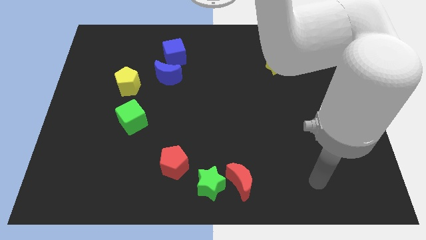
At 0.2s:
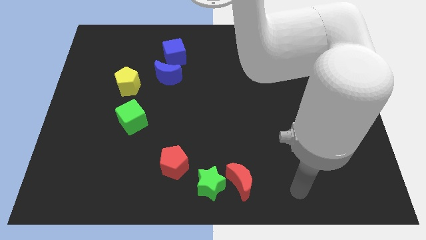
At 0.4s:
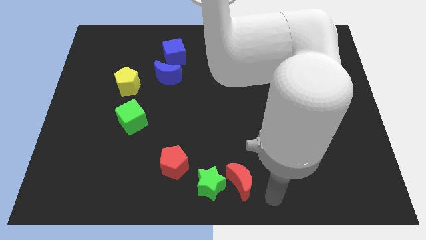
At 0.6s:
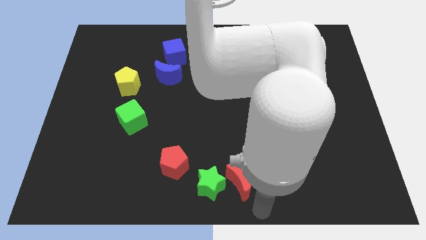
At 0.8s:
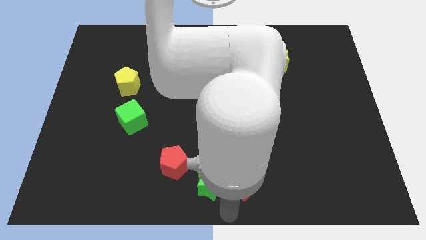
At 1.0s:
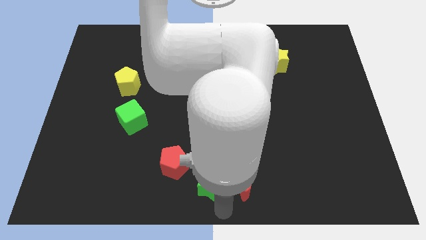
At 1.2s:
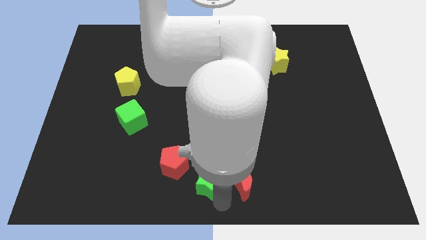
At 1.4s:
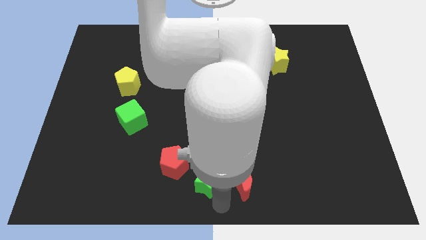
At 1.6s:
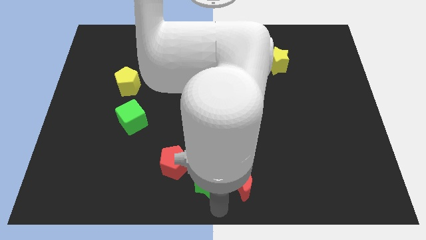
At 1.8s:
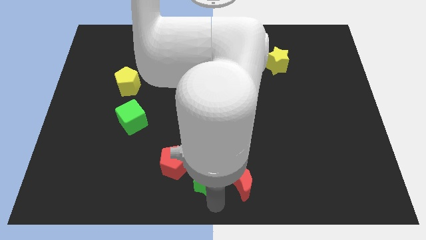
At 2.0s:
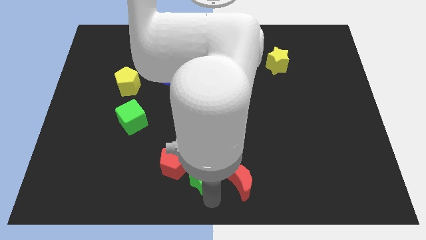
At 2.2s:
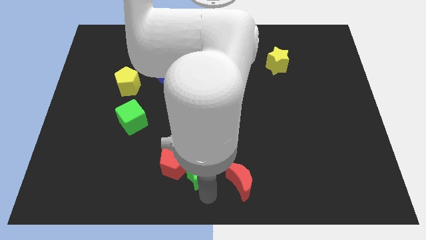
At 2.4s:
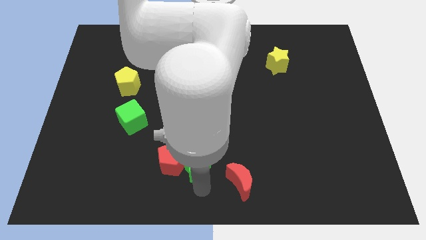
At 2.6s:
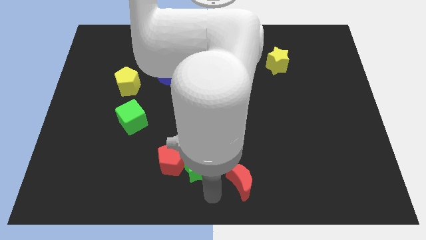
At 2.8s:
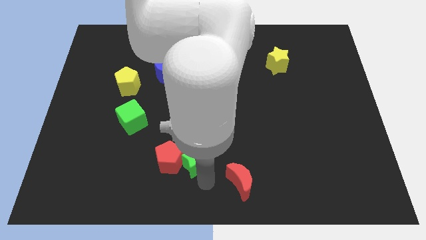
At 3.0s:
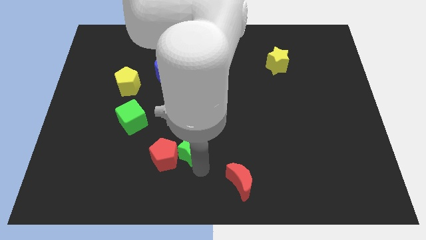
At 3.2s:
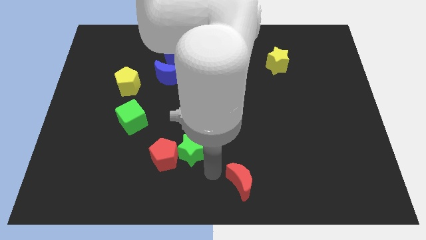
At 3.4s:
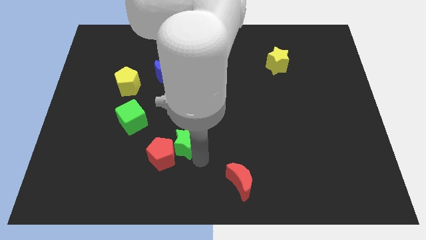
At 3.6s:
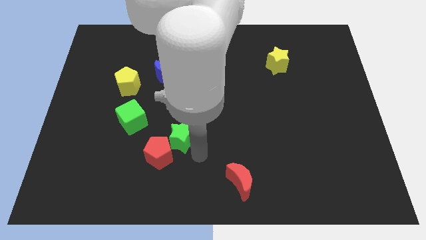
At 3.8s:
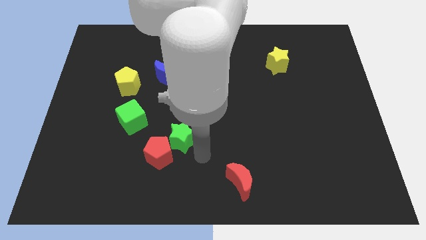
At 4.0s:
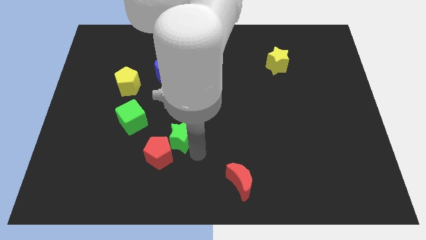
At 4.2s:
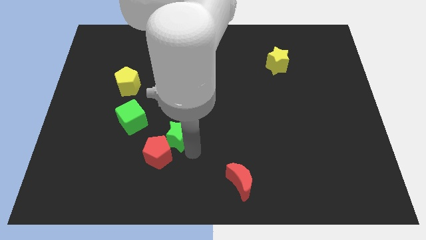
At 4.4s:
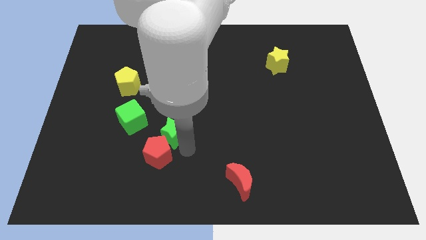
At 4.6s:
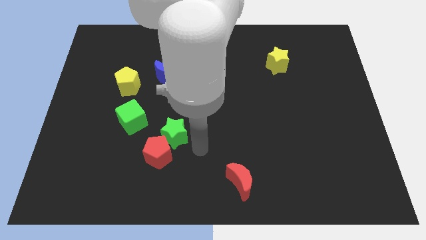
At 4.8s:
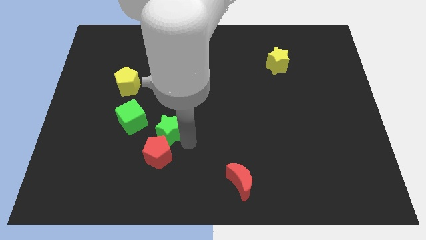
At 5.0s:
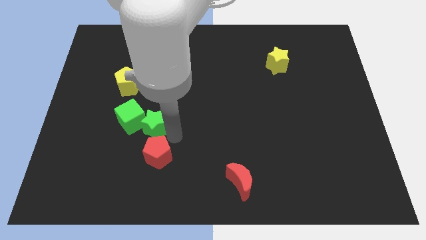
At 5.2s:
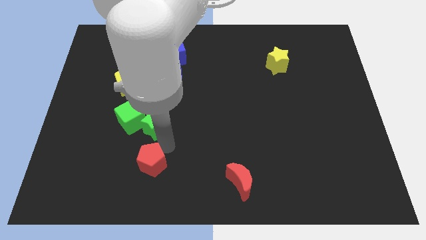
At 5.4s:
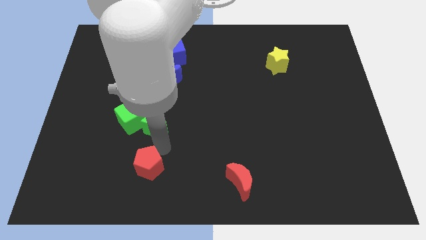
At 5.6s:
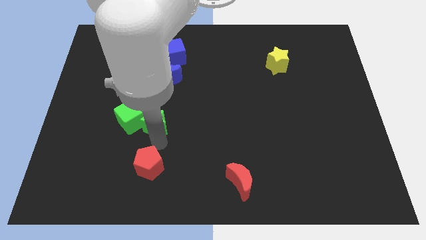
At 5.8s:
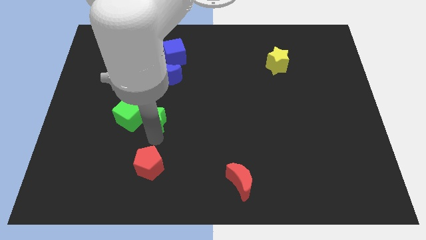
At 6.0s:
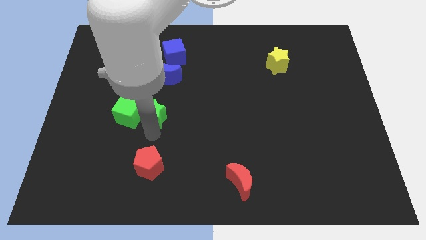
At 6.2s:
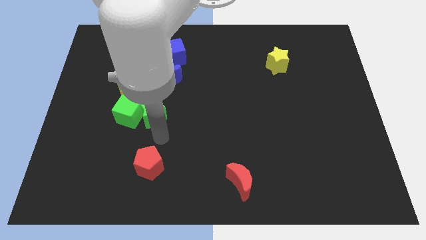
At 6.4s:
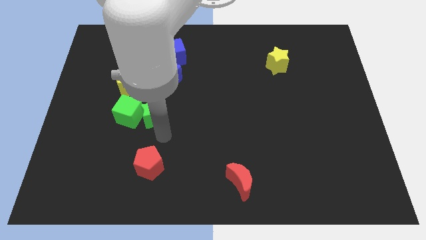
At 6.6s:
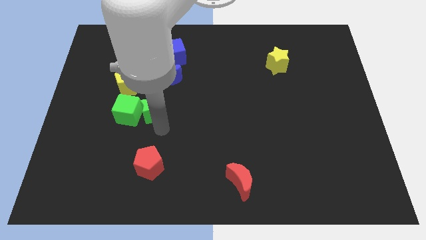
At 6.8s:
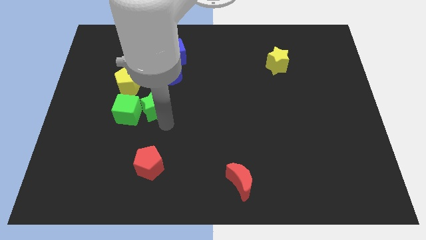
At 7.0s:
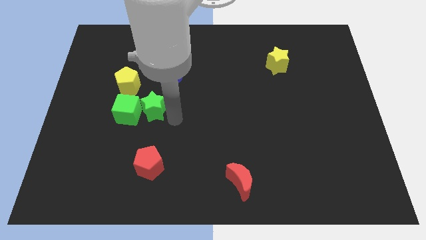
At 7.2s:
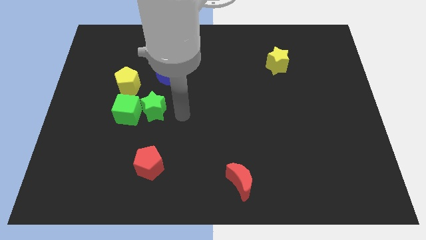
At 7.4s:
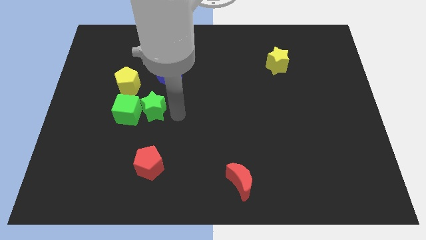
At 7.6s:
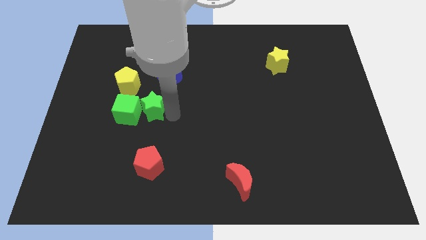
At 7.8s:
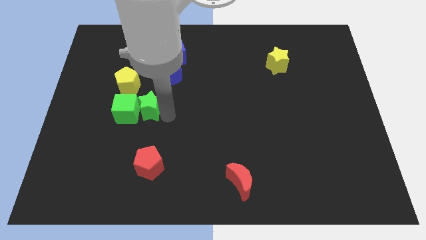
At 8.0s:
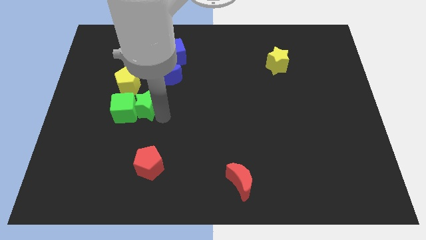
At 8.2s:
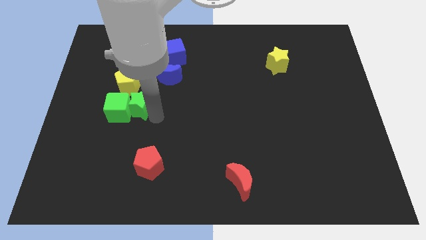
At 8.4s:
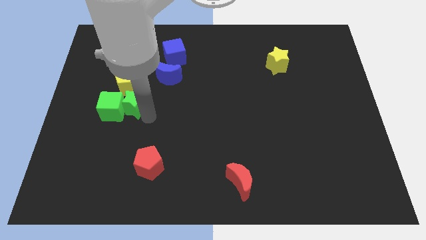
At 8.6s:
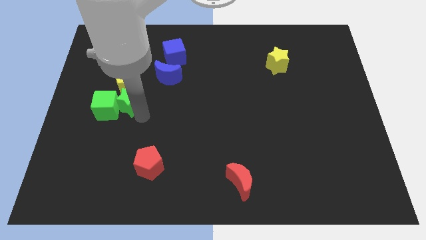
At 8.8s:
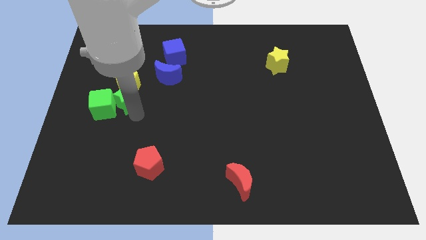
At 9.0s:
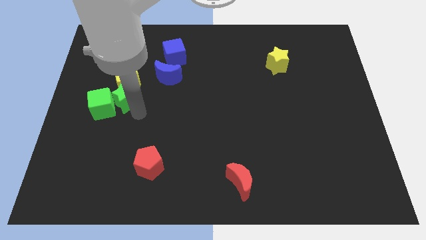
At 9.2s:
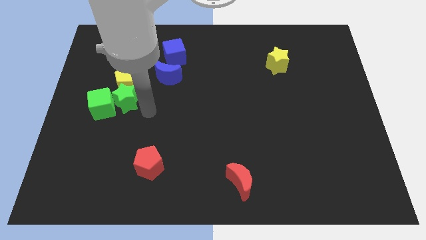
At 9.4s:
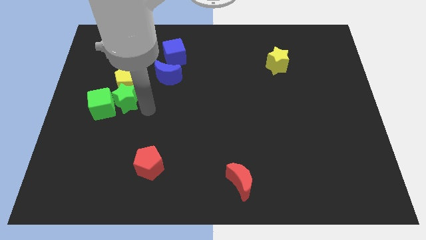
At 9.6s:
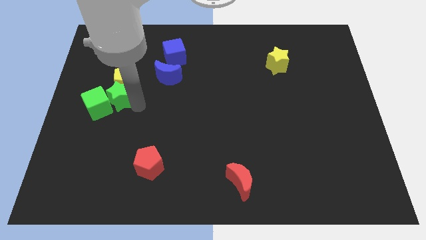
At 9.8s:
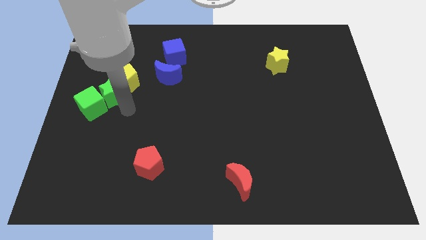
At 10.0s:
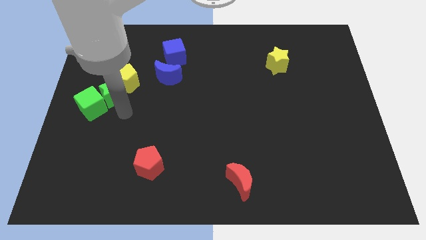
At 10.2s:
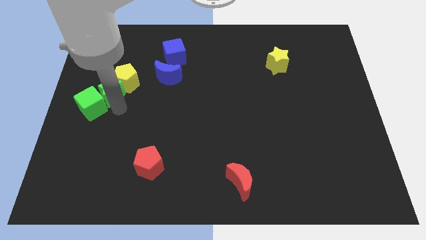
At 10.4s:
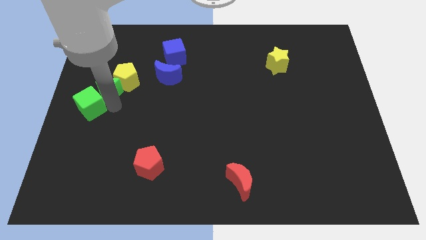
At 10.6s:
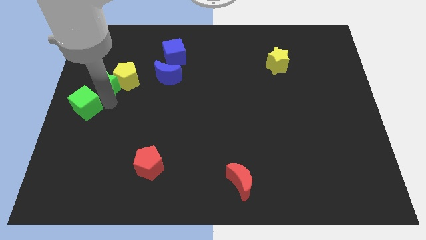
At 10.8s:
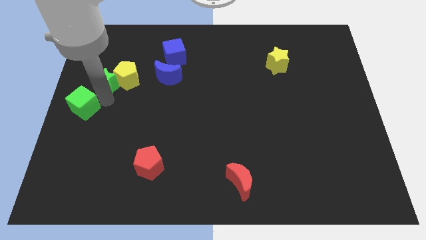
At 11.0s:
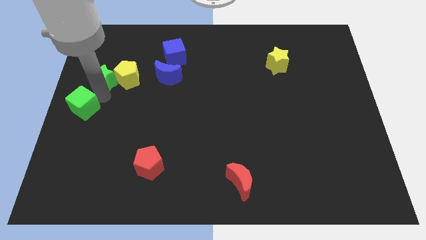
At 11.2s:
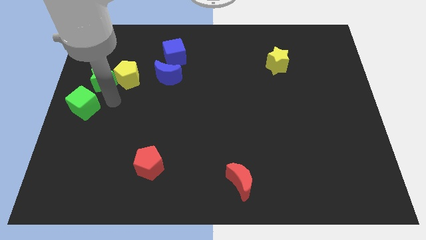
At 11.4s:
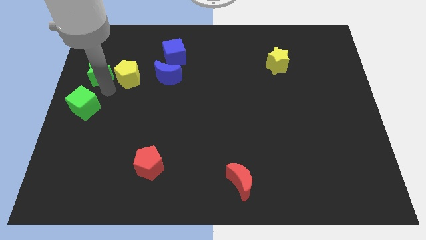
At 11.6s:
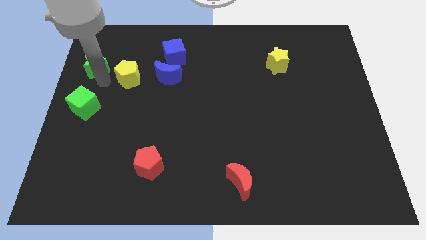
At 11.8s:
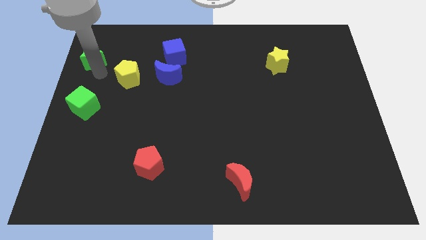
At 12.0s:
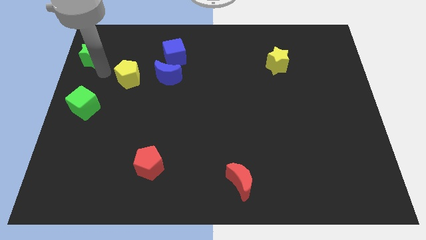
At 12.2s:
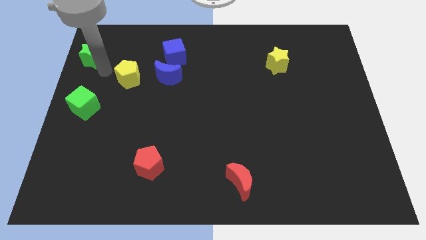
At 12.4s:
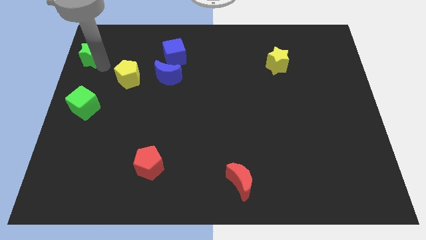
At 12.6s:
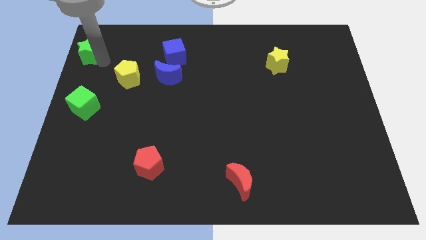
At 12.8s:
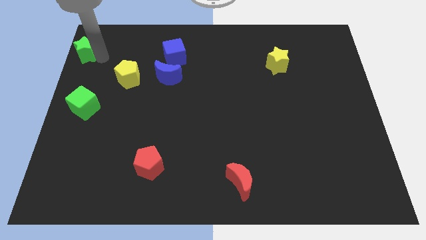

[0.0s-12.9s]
push the green star to the top left
